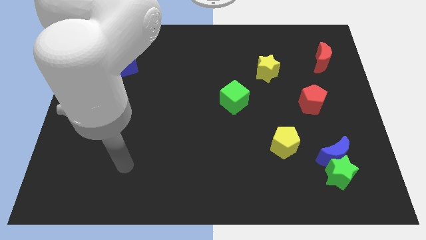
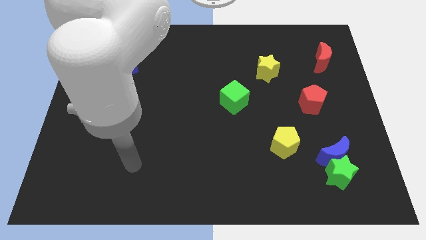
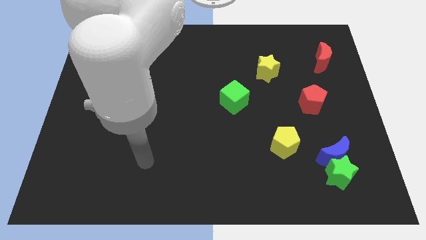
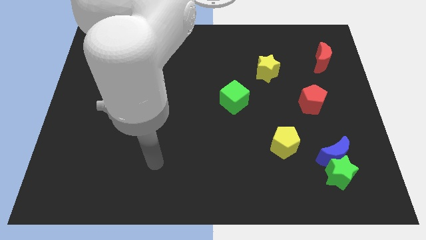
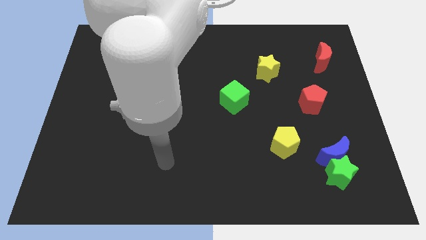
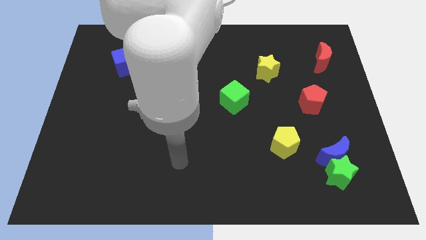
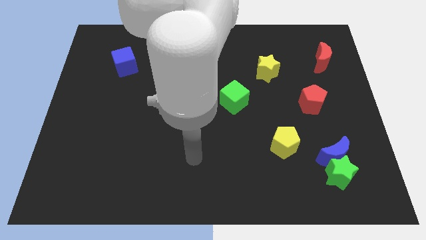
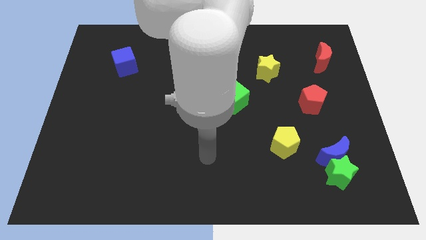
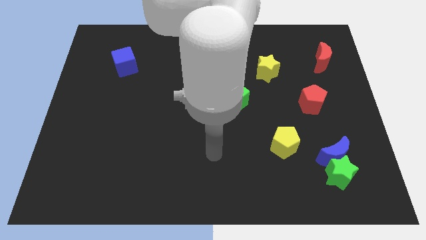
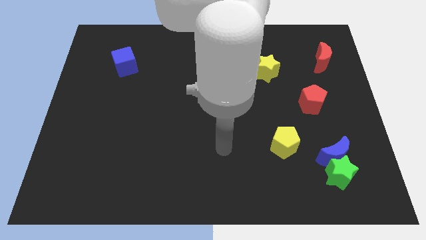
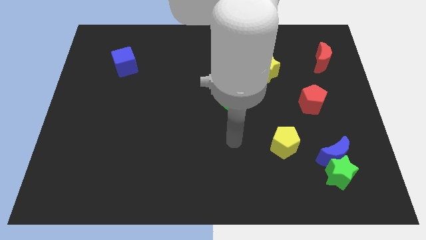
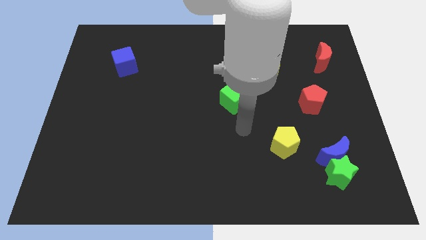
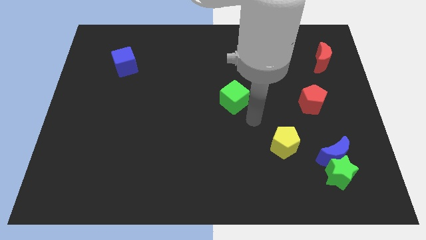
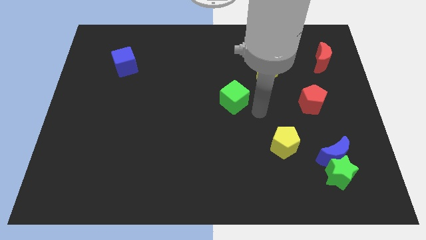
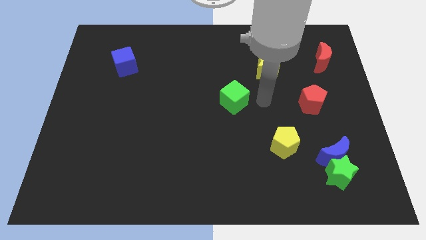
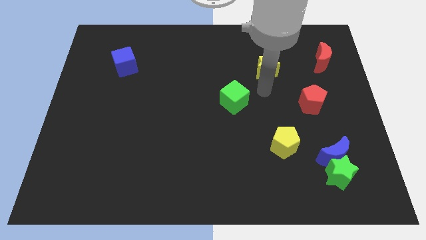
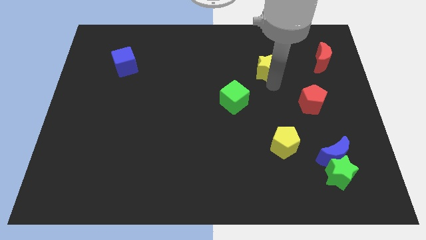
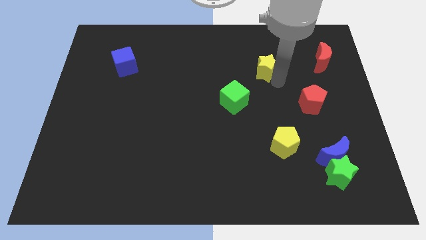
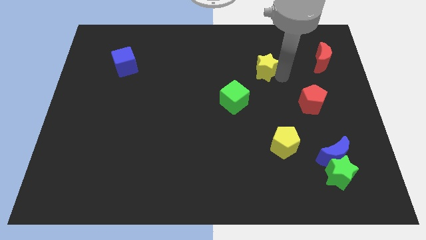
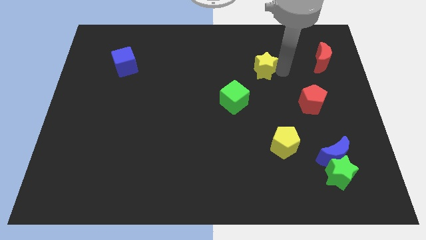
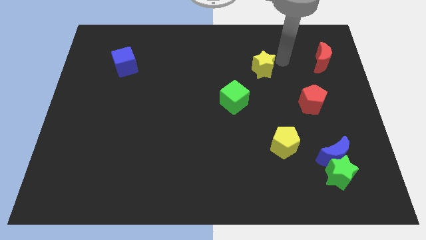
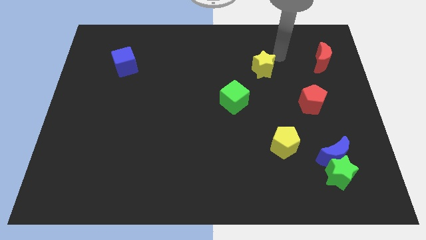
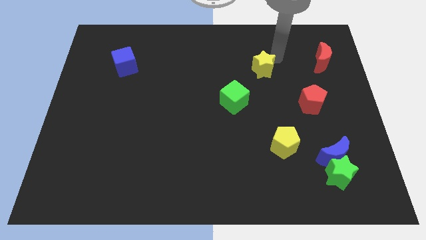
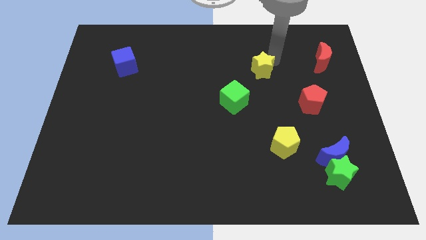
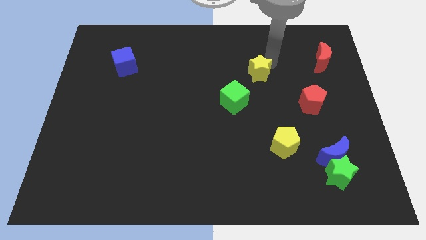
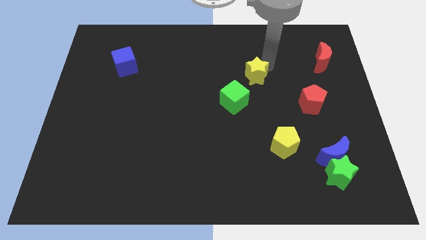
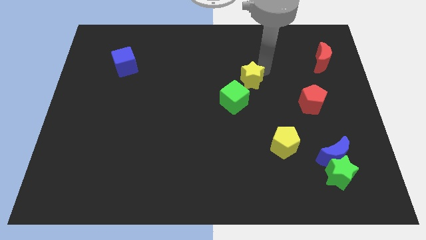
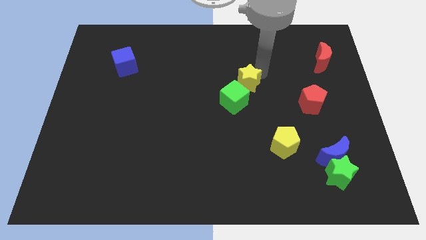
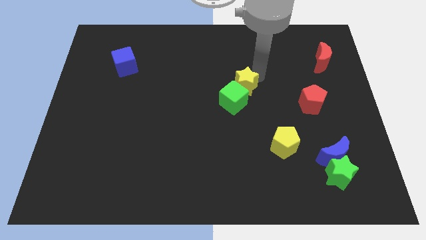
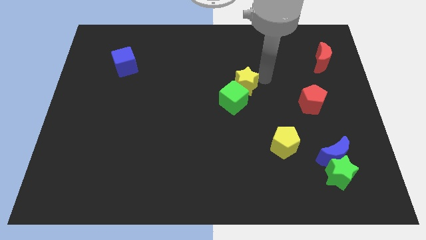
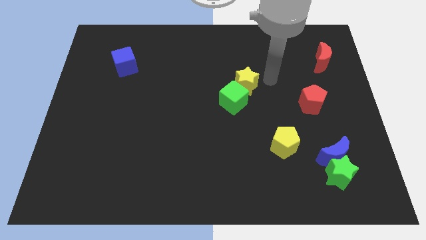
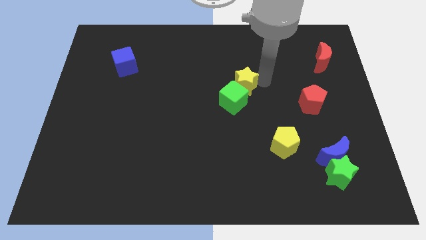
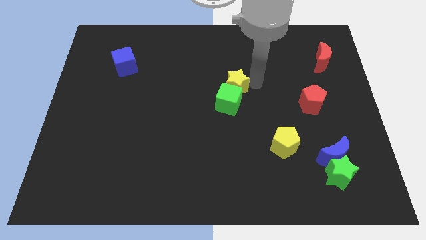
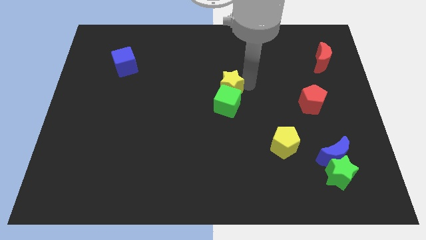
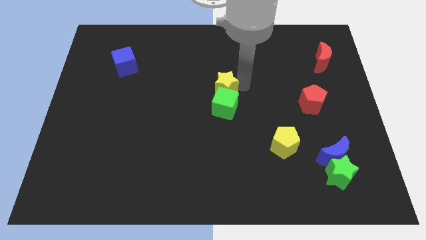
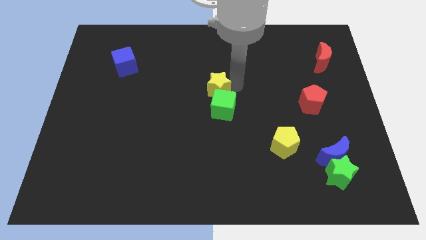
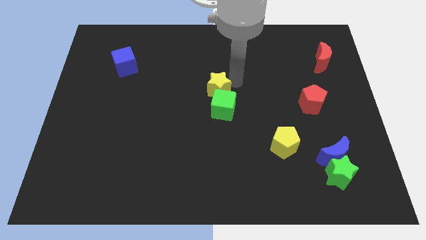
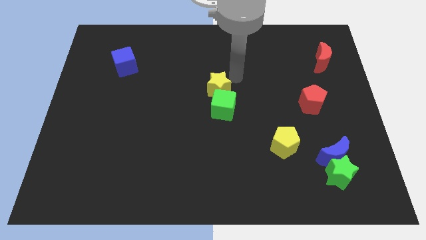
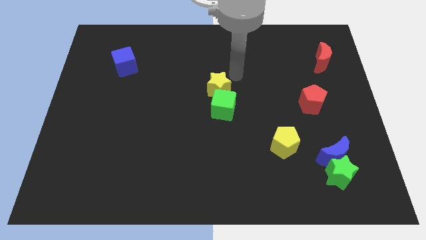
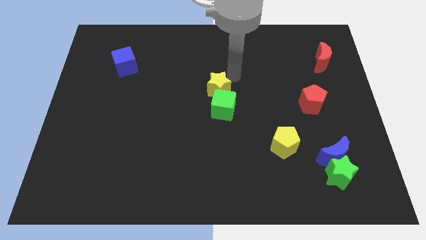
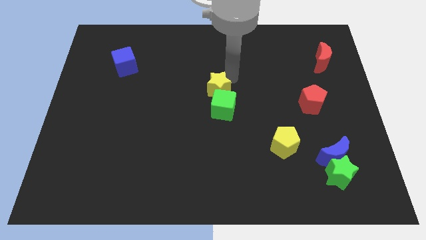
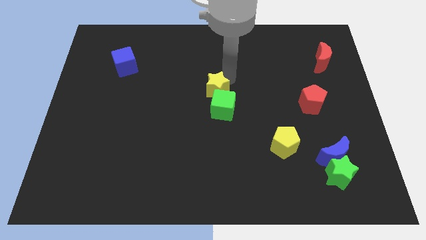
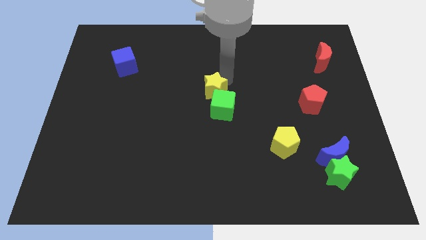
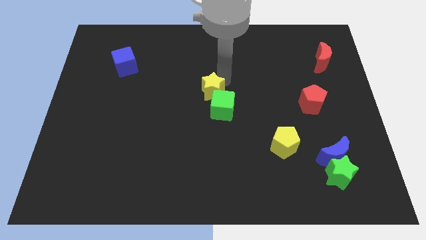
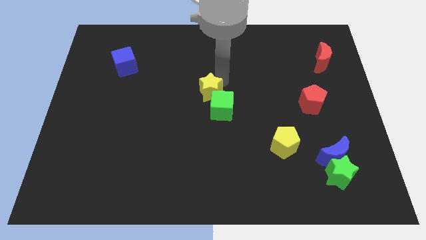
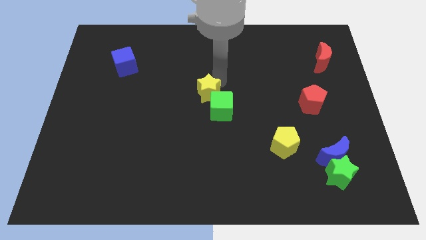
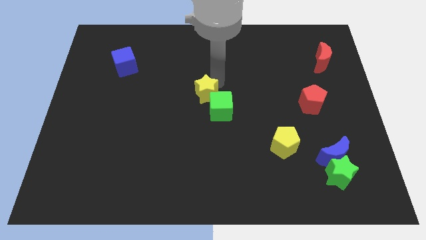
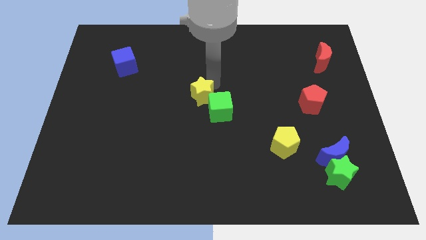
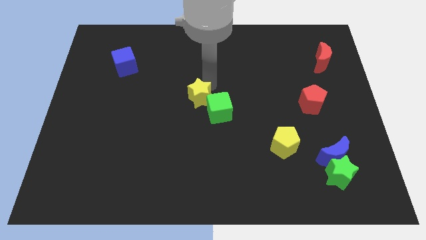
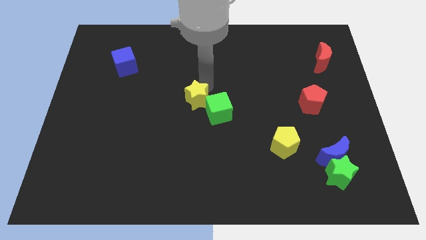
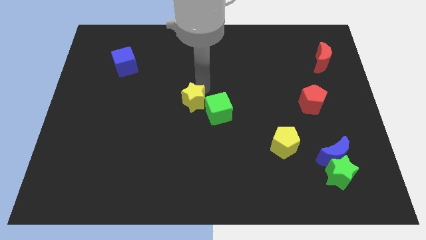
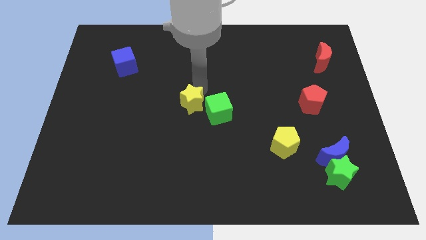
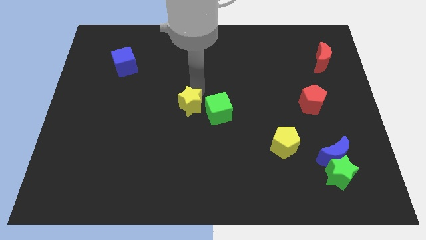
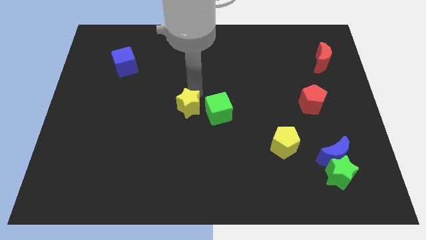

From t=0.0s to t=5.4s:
move the yellow star downwards and left diagonally

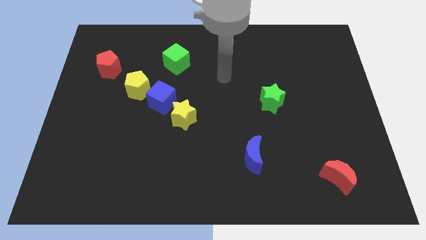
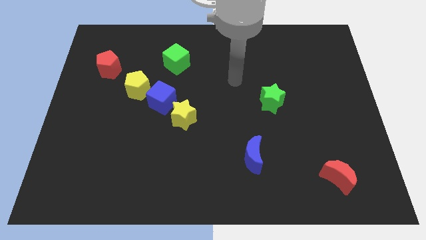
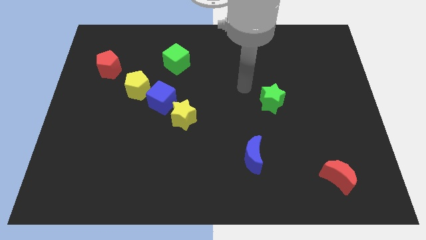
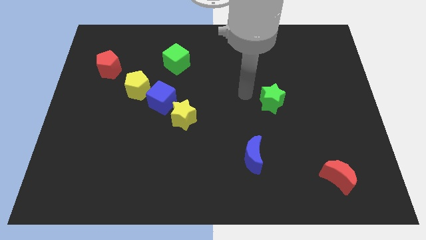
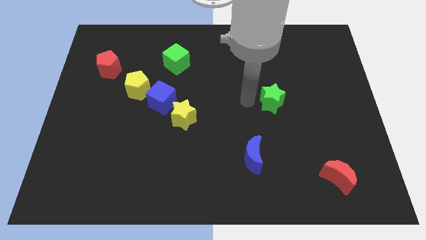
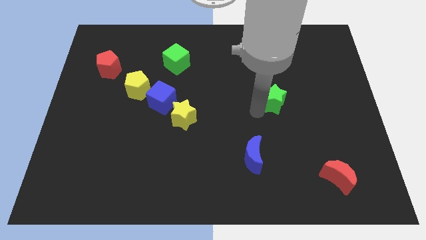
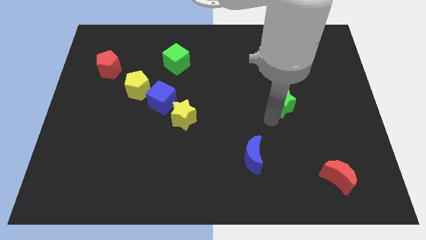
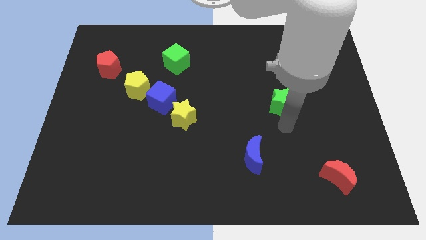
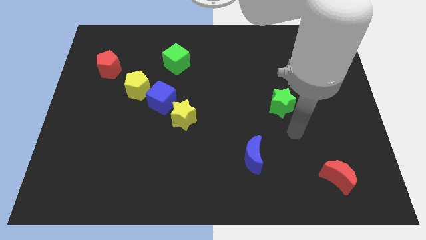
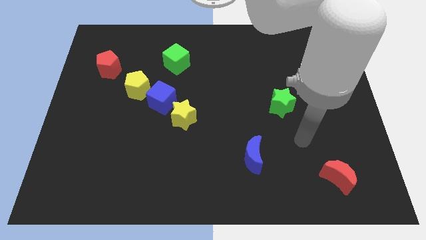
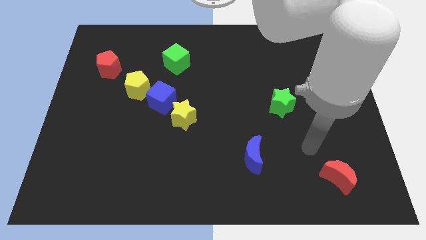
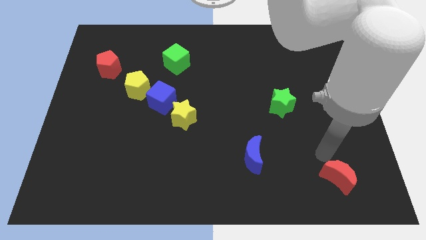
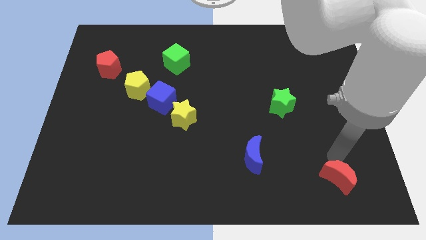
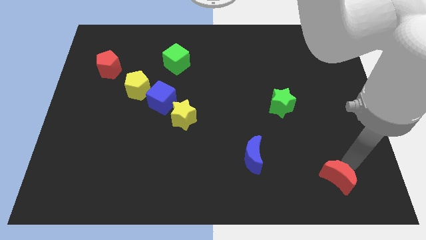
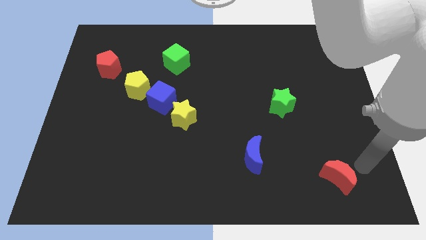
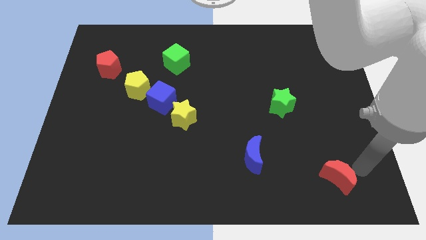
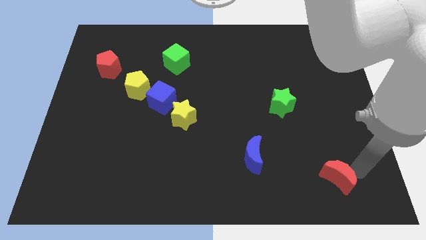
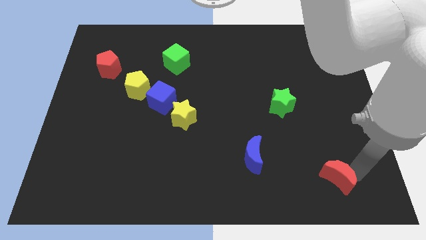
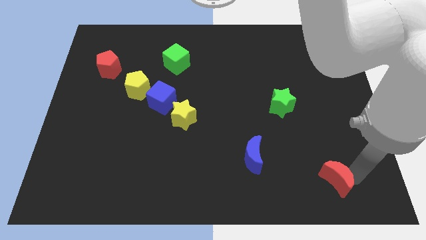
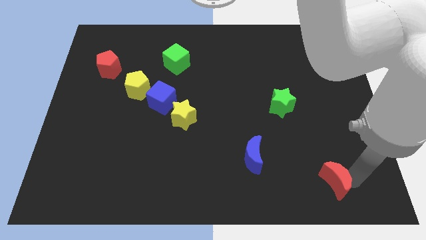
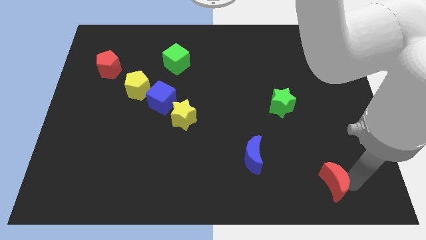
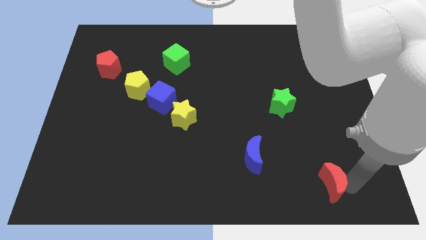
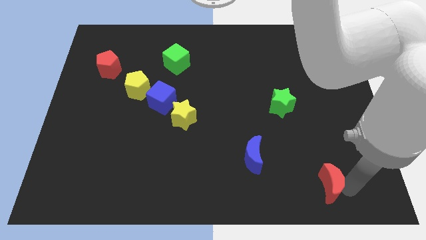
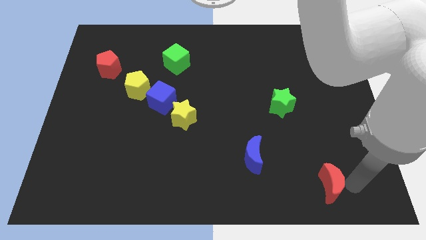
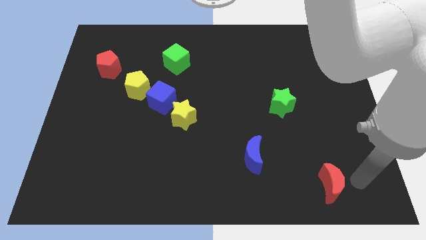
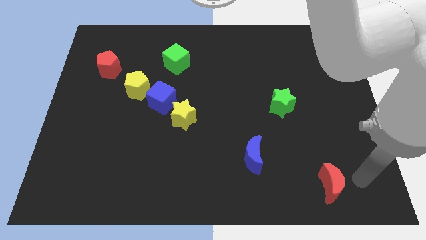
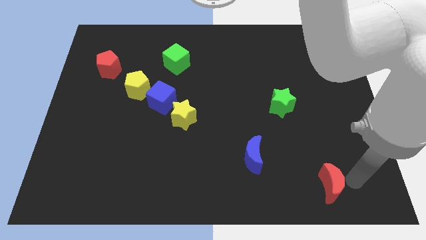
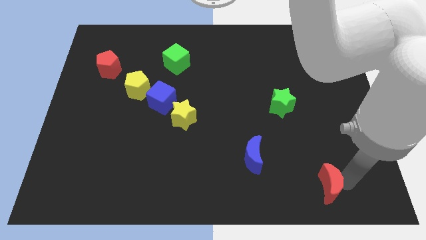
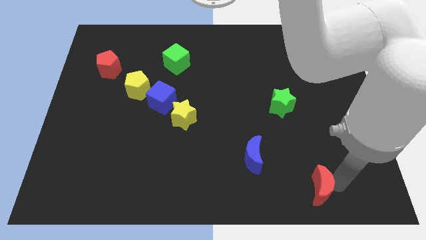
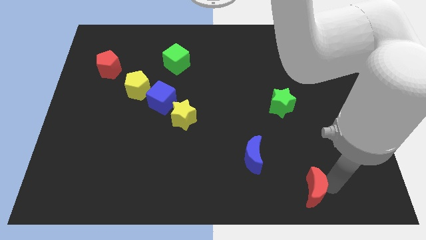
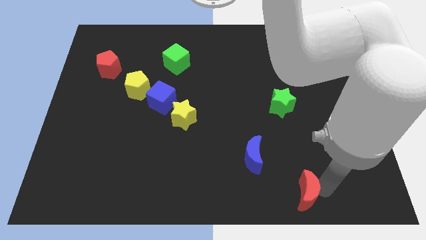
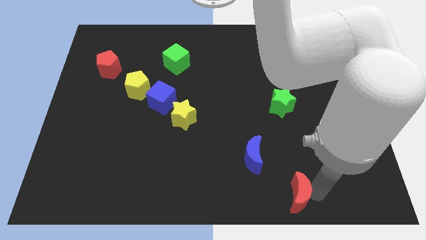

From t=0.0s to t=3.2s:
move the red moon a little to the left
